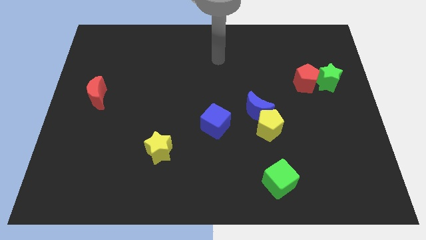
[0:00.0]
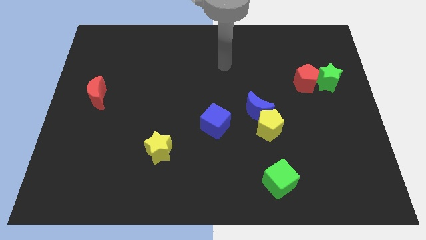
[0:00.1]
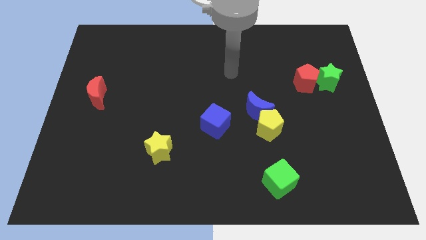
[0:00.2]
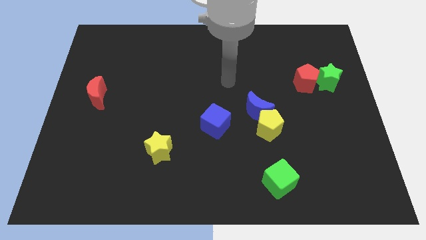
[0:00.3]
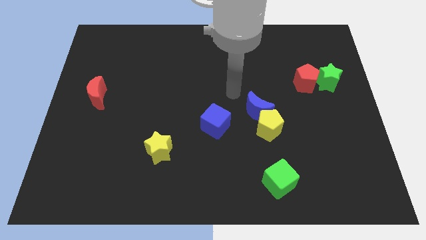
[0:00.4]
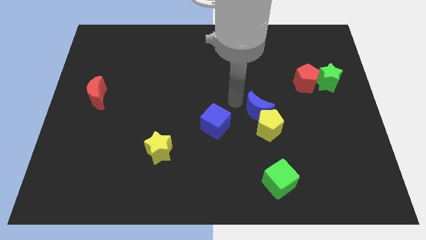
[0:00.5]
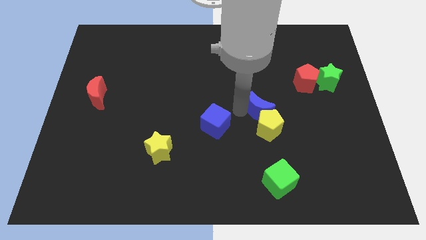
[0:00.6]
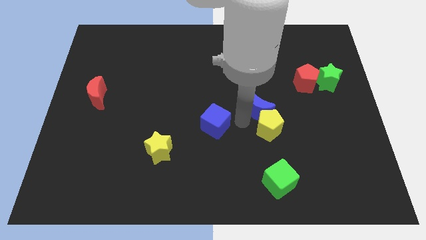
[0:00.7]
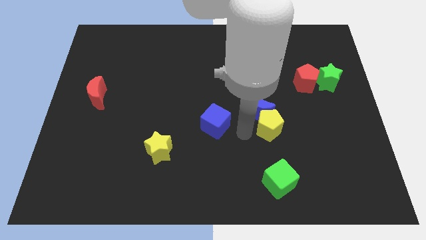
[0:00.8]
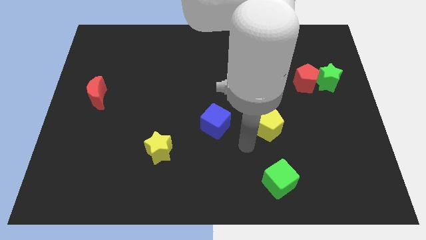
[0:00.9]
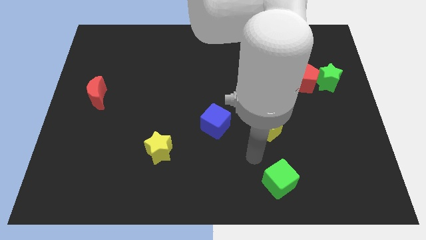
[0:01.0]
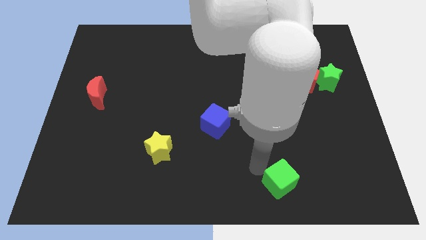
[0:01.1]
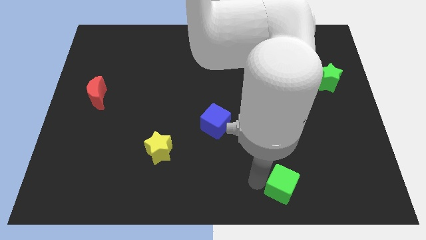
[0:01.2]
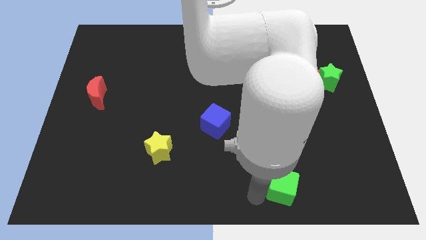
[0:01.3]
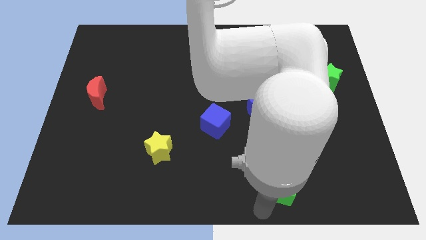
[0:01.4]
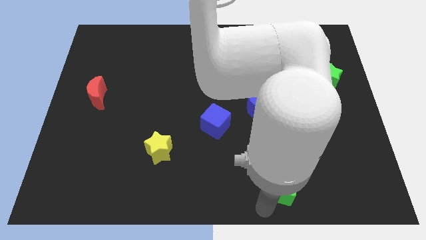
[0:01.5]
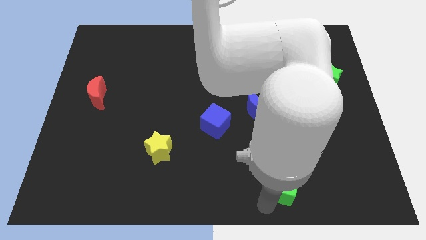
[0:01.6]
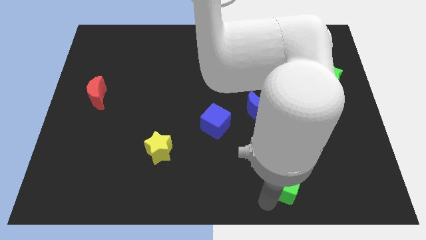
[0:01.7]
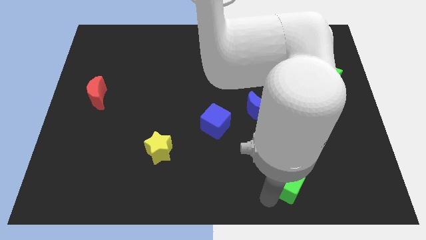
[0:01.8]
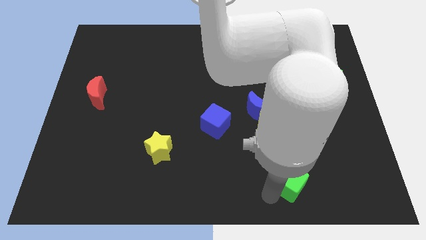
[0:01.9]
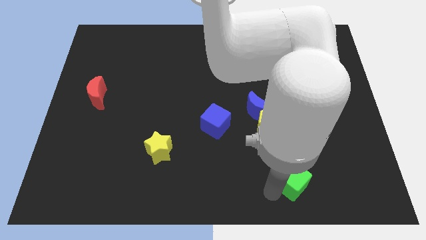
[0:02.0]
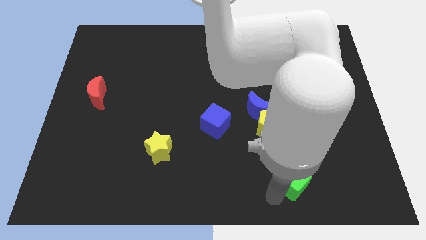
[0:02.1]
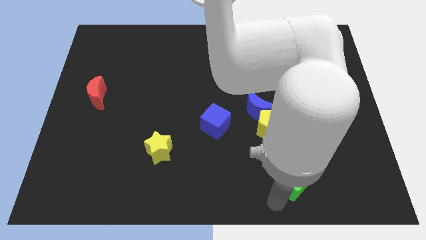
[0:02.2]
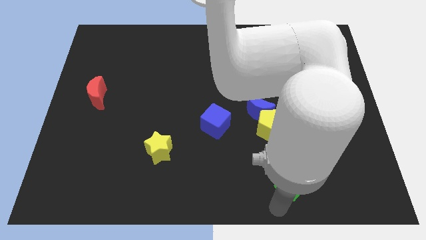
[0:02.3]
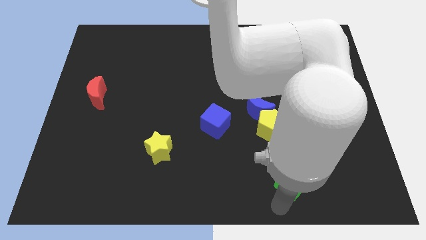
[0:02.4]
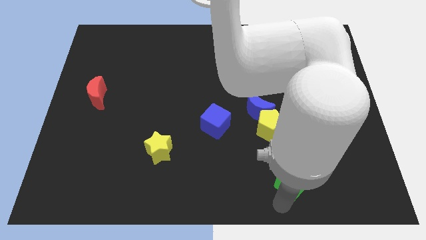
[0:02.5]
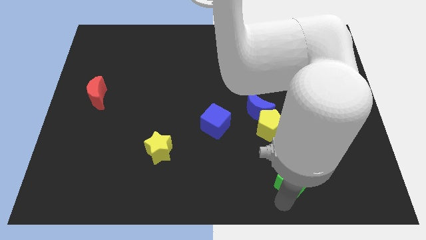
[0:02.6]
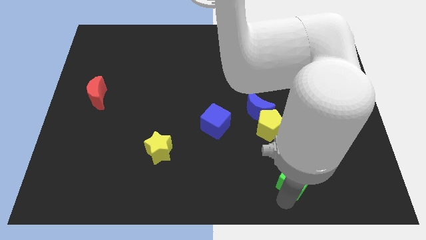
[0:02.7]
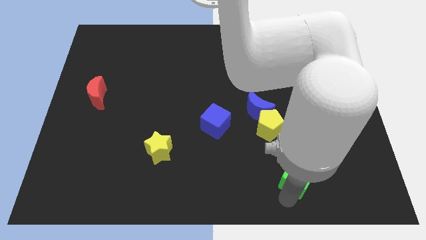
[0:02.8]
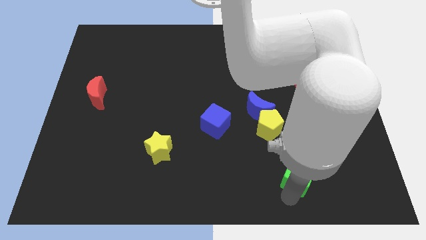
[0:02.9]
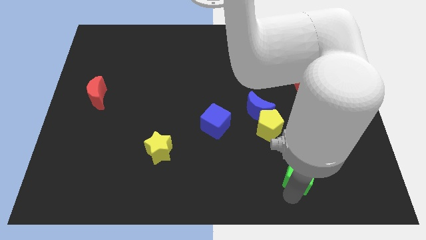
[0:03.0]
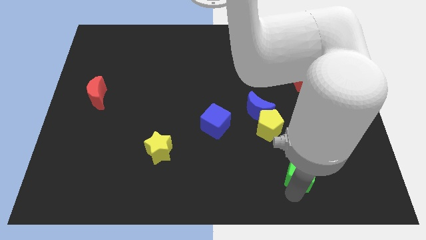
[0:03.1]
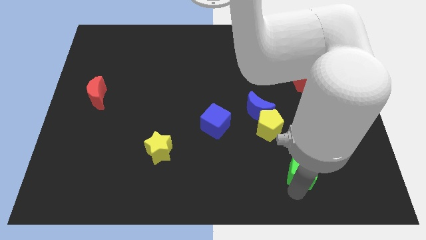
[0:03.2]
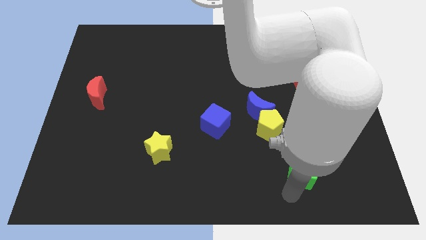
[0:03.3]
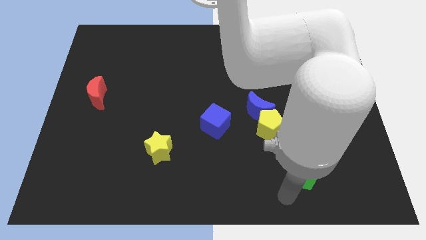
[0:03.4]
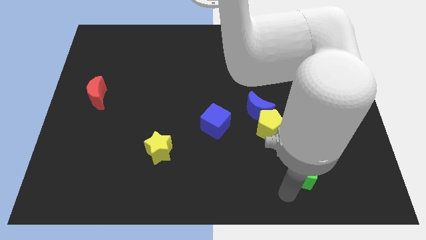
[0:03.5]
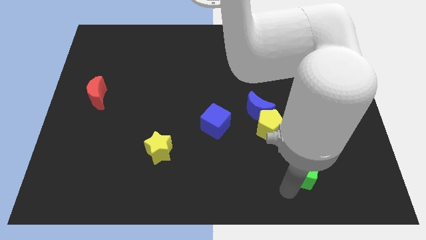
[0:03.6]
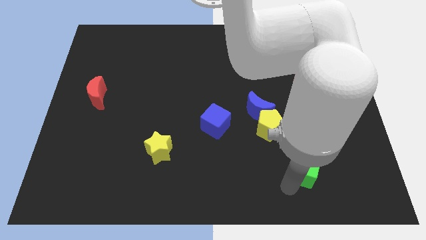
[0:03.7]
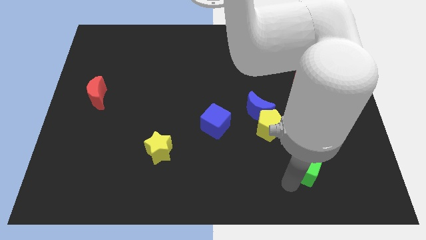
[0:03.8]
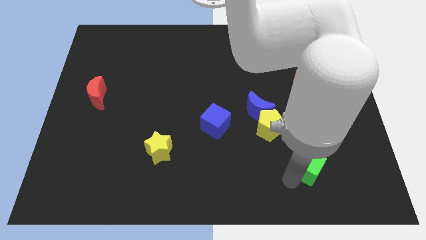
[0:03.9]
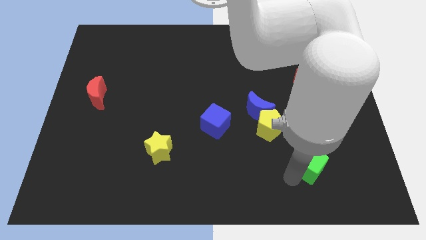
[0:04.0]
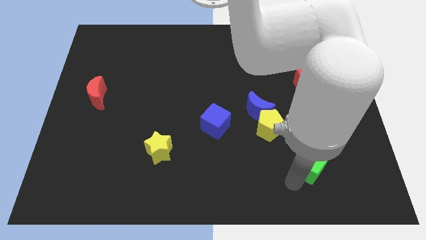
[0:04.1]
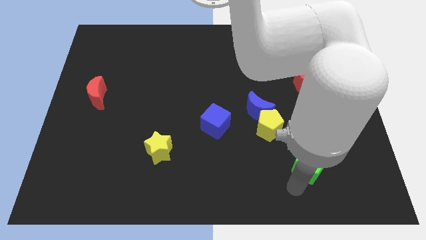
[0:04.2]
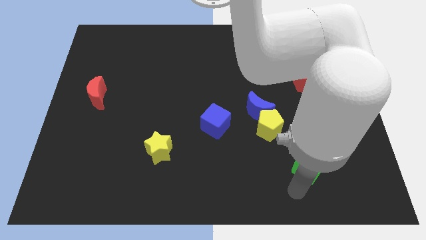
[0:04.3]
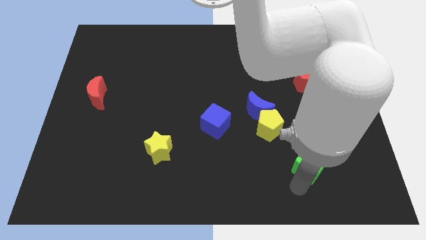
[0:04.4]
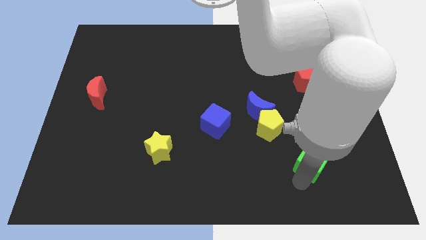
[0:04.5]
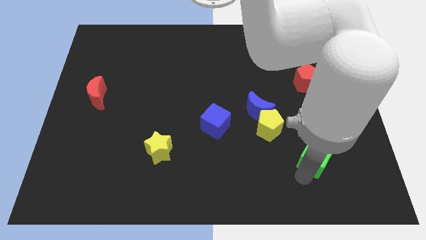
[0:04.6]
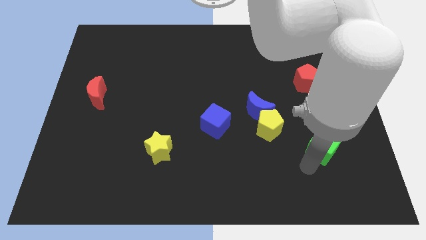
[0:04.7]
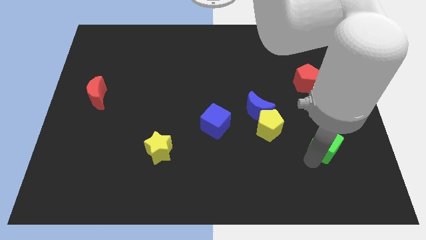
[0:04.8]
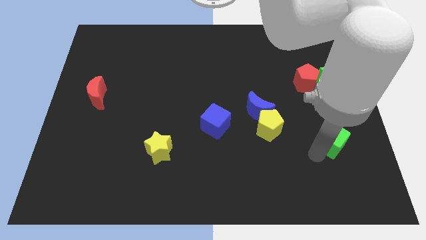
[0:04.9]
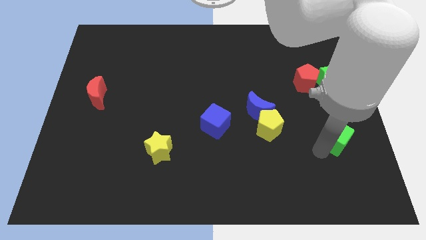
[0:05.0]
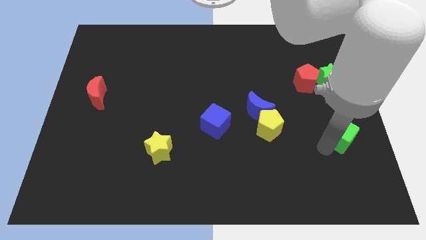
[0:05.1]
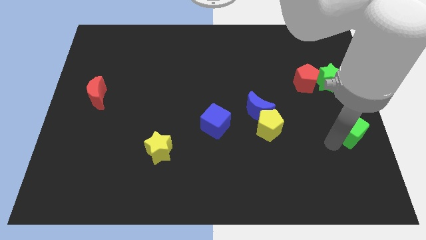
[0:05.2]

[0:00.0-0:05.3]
put the green cube to the right side

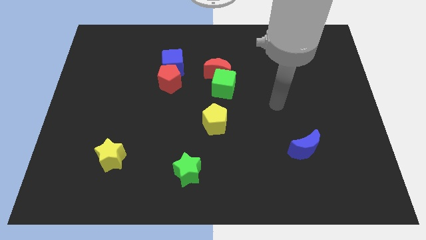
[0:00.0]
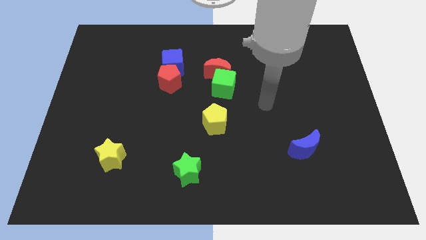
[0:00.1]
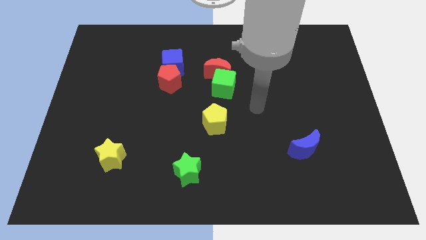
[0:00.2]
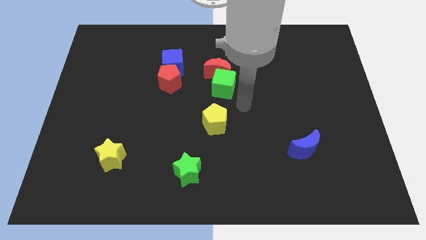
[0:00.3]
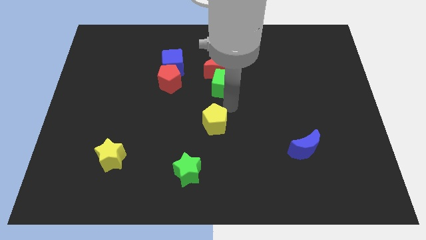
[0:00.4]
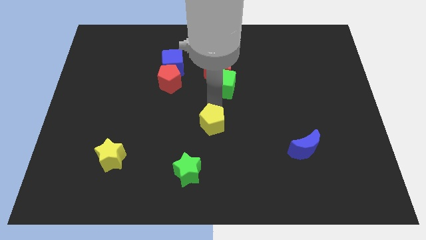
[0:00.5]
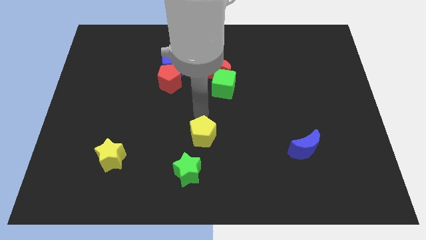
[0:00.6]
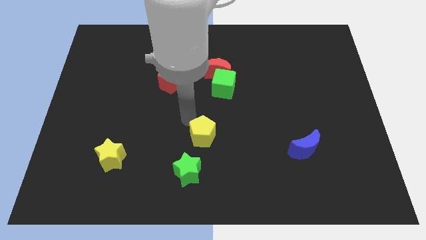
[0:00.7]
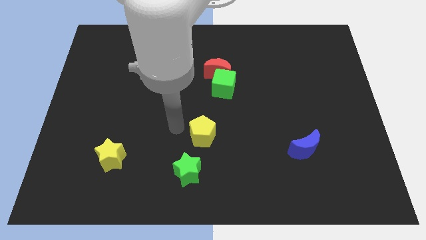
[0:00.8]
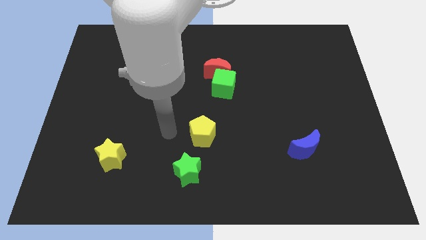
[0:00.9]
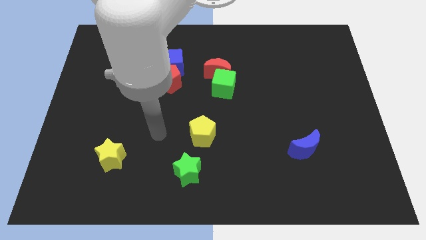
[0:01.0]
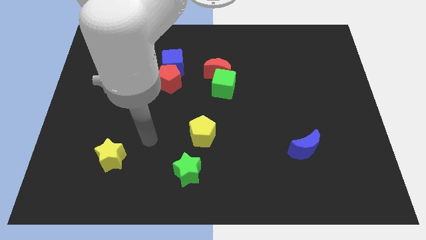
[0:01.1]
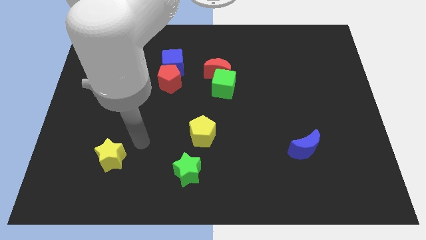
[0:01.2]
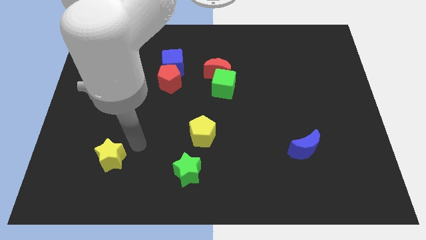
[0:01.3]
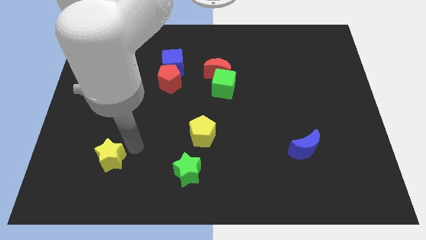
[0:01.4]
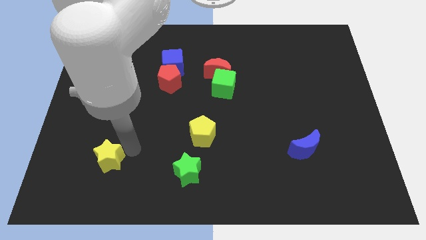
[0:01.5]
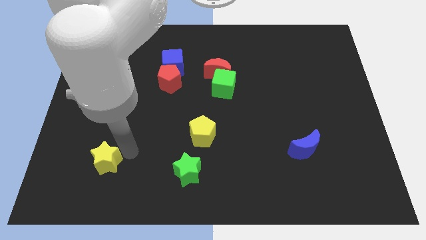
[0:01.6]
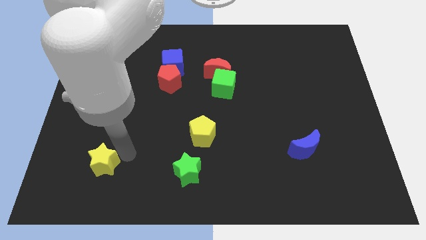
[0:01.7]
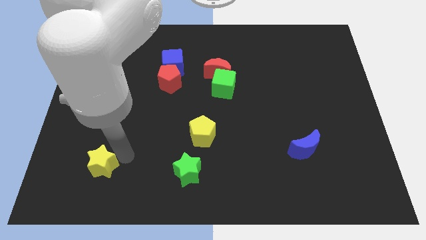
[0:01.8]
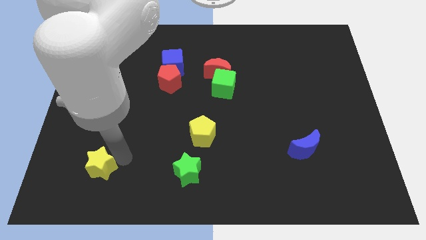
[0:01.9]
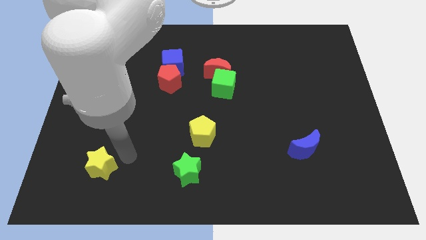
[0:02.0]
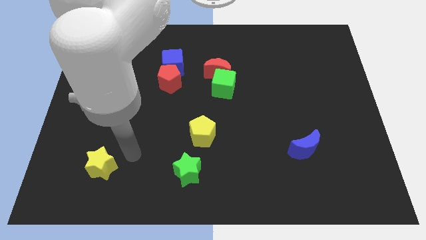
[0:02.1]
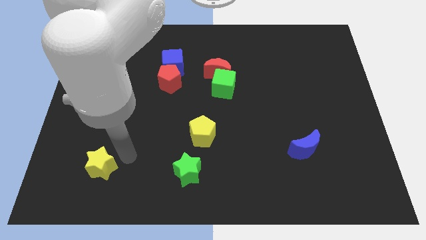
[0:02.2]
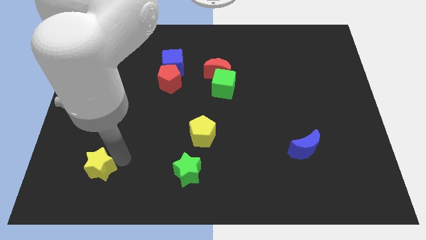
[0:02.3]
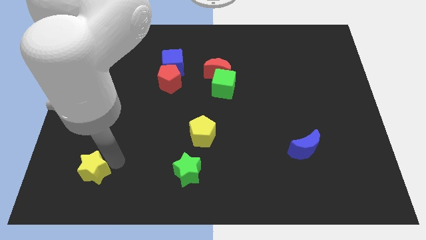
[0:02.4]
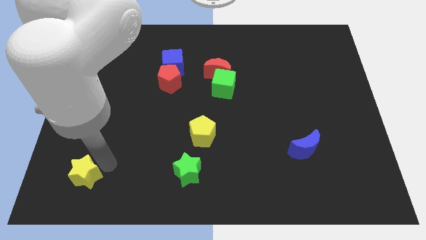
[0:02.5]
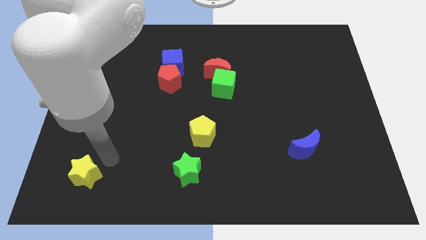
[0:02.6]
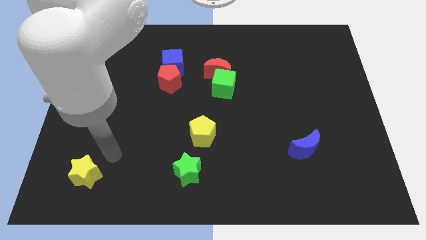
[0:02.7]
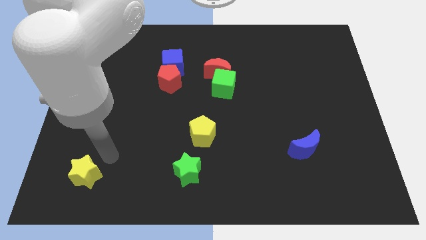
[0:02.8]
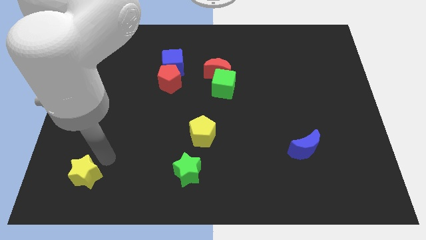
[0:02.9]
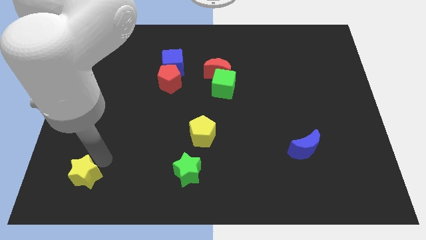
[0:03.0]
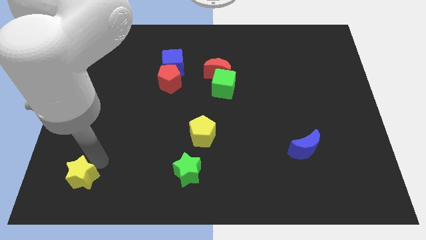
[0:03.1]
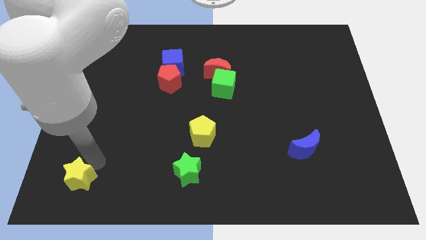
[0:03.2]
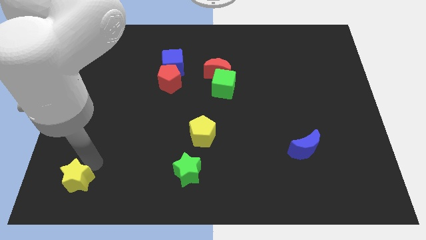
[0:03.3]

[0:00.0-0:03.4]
put the yellow star to the lower left corner
